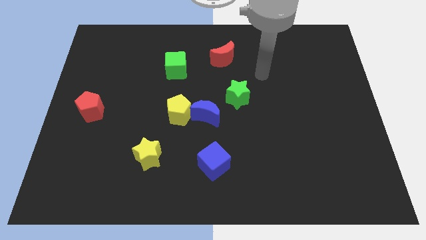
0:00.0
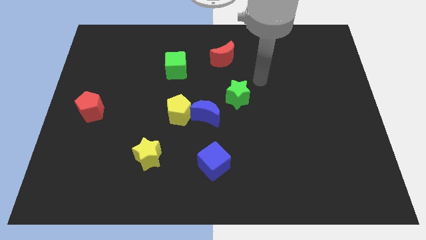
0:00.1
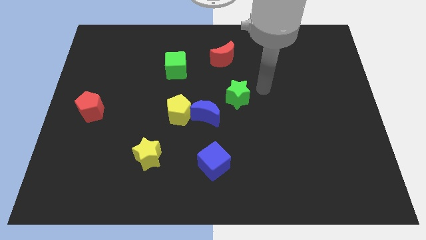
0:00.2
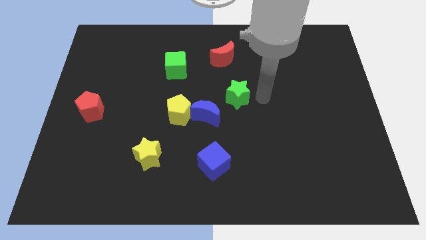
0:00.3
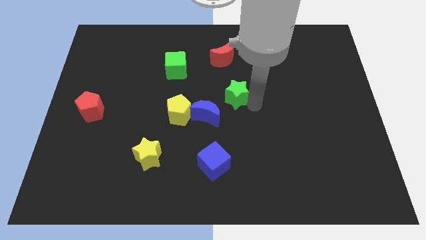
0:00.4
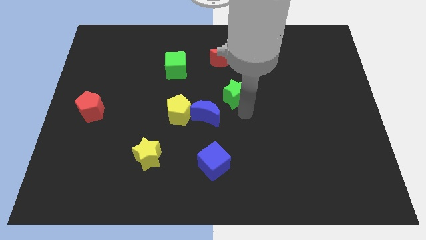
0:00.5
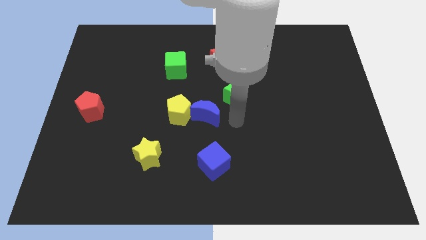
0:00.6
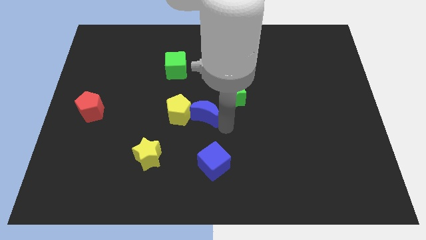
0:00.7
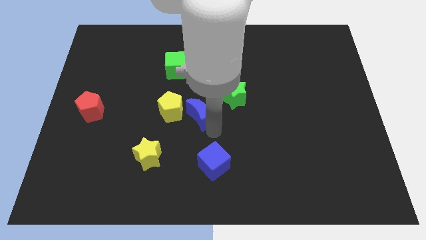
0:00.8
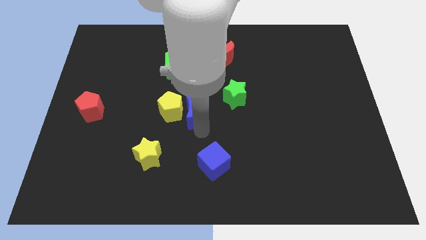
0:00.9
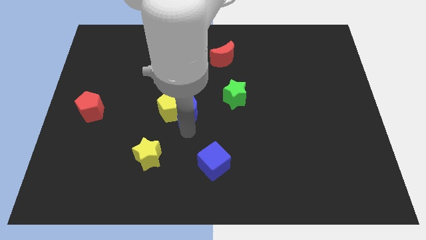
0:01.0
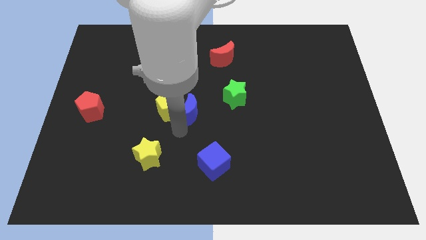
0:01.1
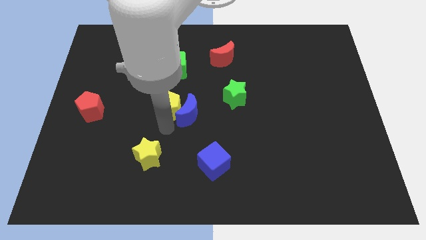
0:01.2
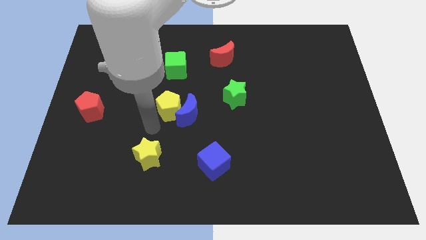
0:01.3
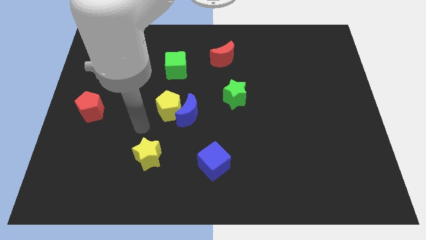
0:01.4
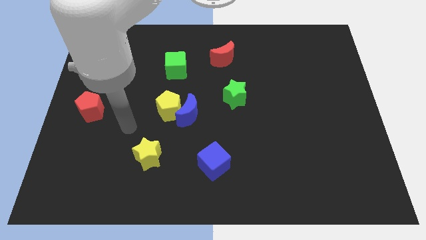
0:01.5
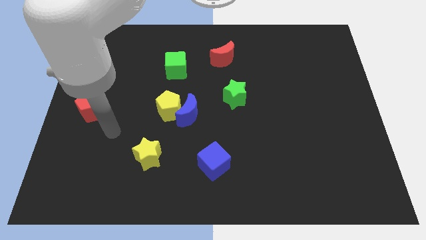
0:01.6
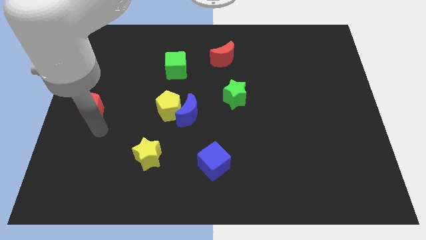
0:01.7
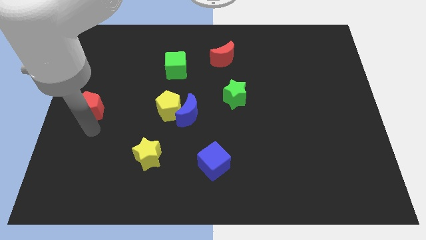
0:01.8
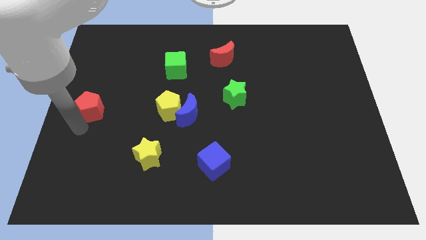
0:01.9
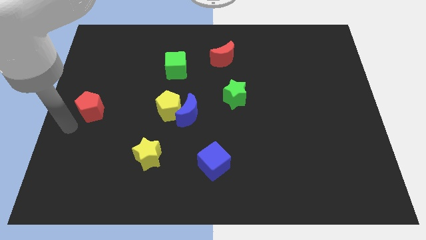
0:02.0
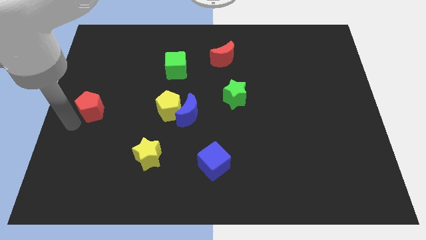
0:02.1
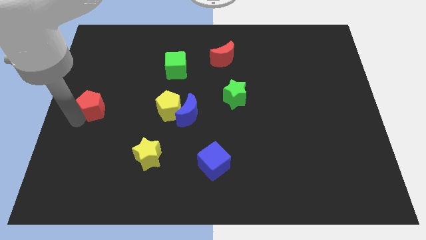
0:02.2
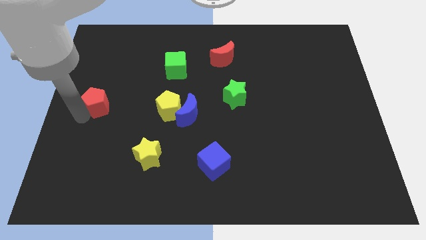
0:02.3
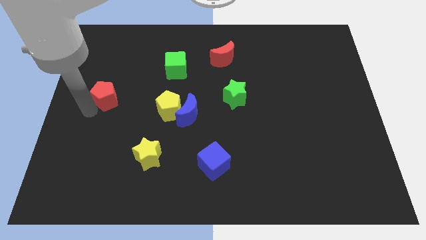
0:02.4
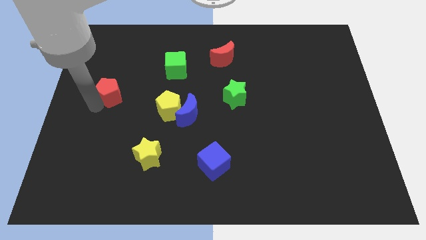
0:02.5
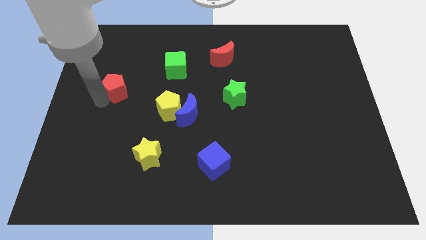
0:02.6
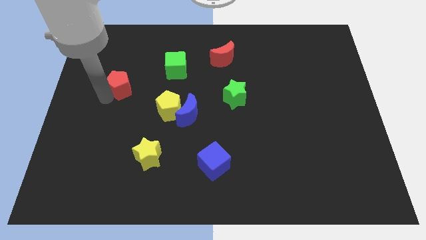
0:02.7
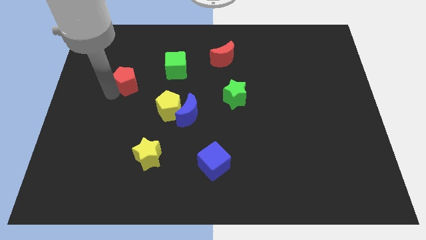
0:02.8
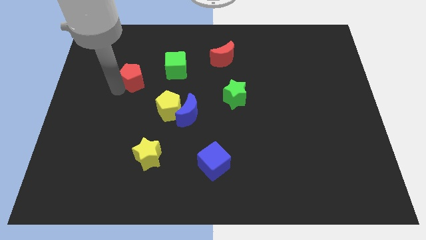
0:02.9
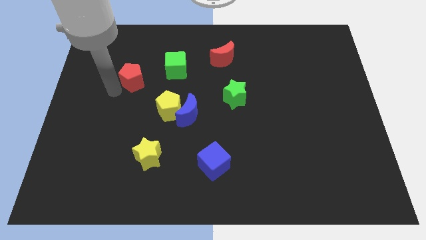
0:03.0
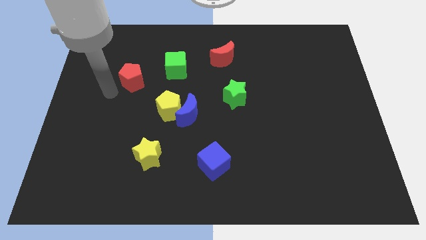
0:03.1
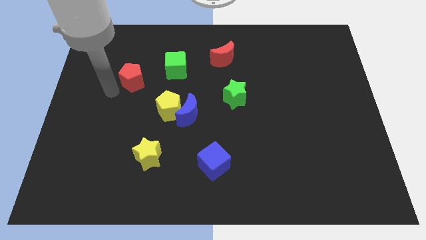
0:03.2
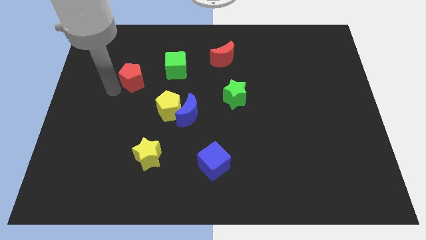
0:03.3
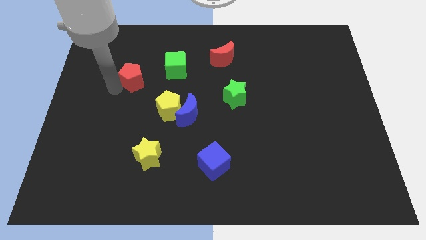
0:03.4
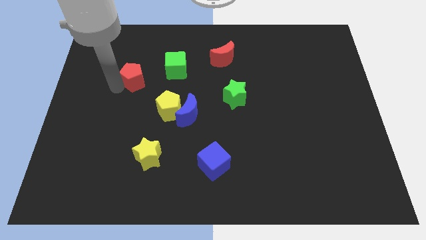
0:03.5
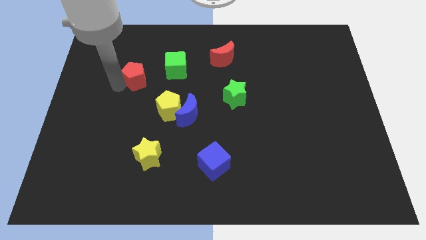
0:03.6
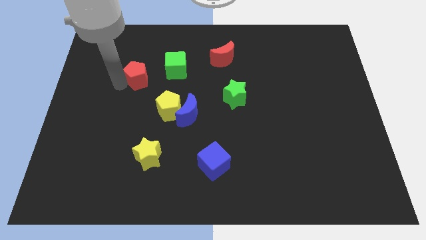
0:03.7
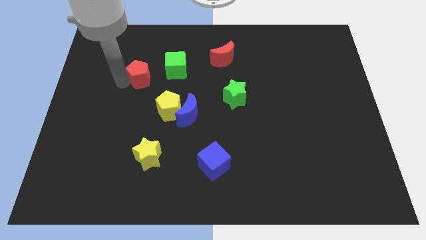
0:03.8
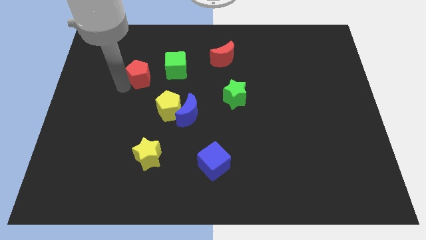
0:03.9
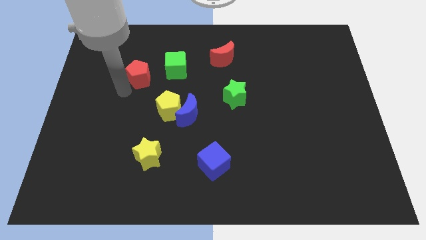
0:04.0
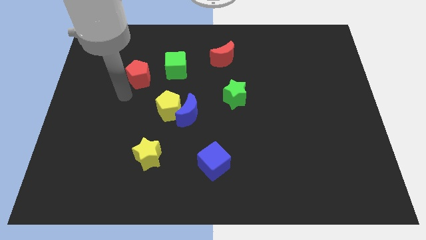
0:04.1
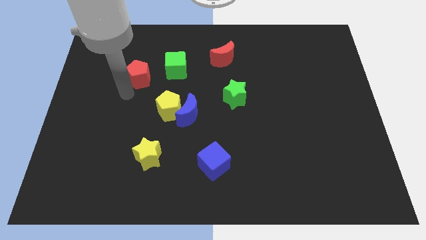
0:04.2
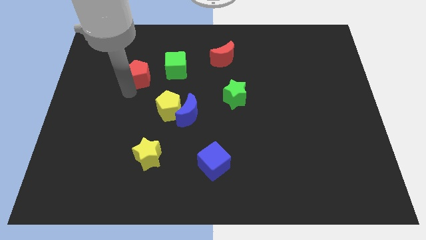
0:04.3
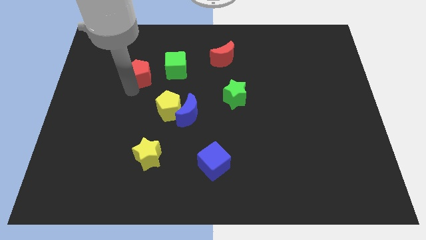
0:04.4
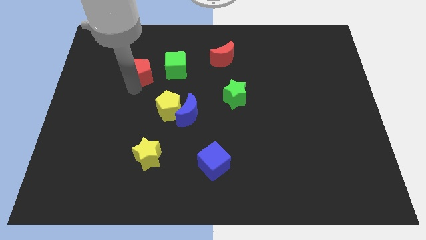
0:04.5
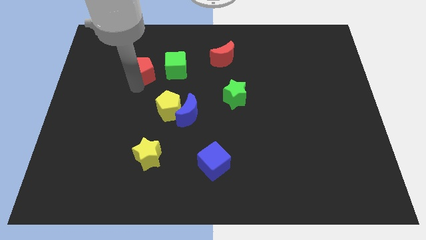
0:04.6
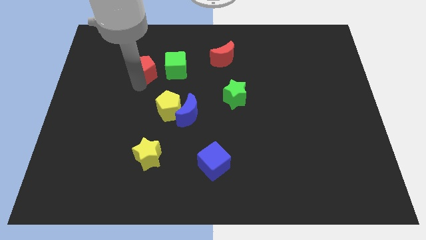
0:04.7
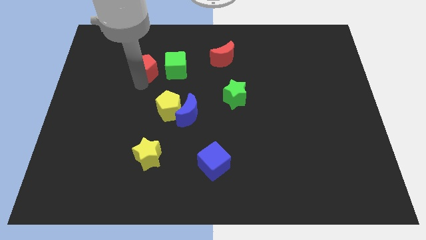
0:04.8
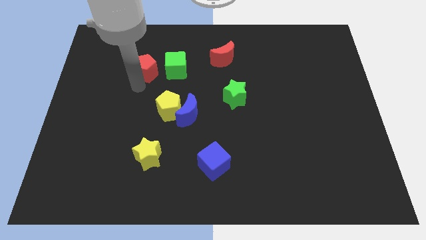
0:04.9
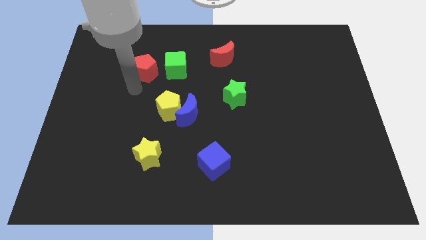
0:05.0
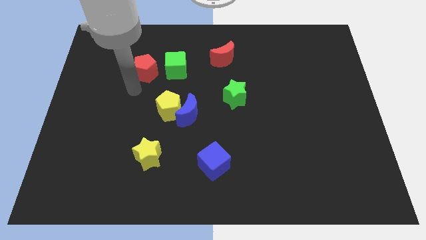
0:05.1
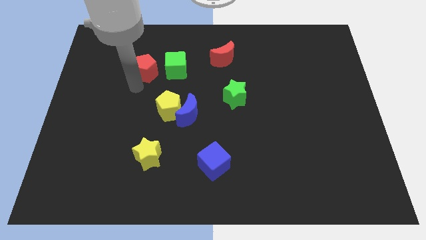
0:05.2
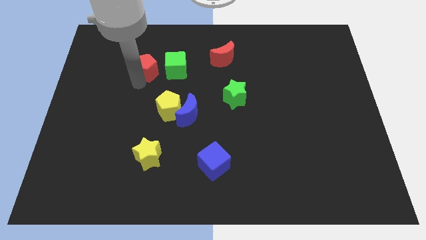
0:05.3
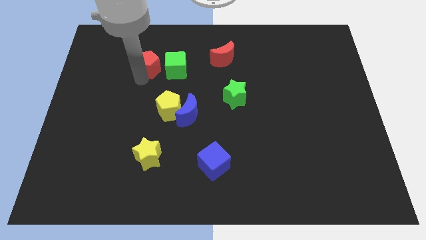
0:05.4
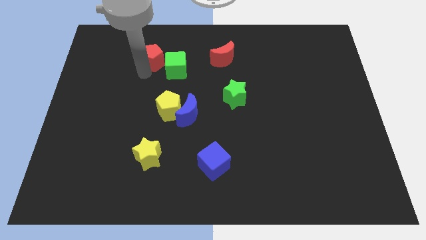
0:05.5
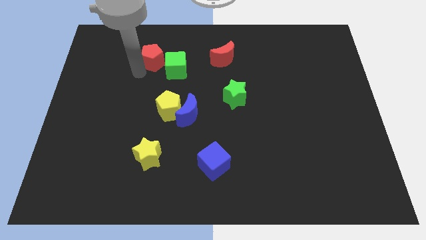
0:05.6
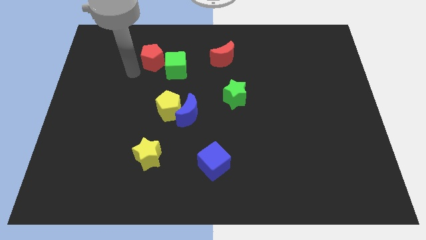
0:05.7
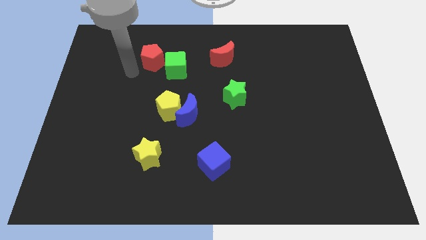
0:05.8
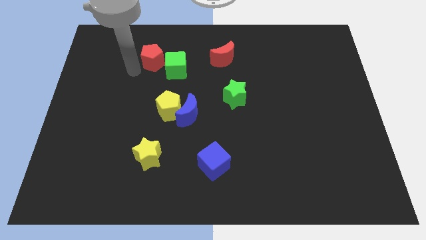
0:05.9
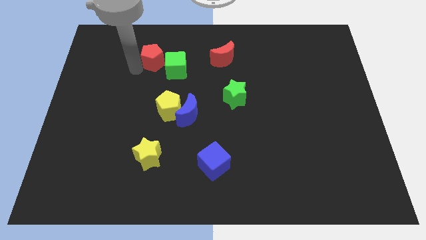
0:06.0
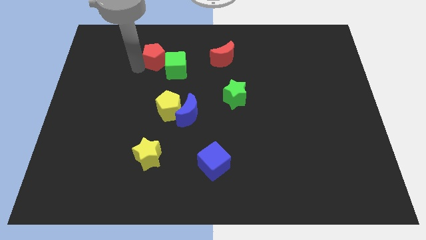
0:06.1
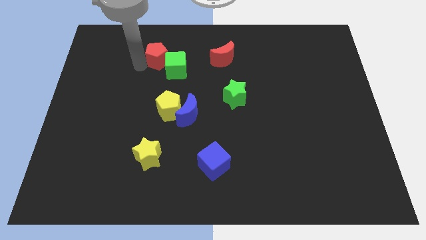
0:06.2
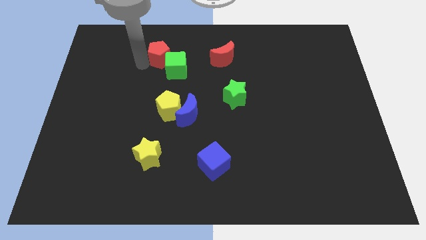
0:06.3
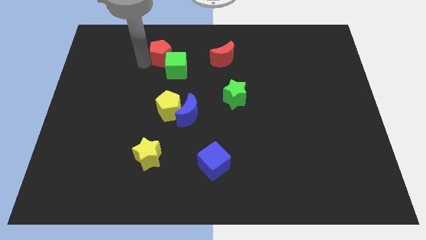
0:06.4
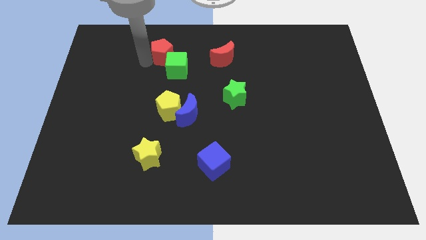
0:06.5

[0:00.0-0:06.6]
push the red pentagon to the left of the red moon

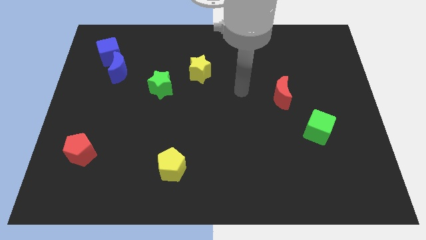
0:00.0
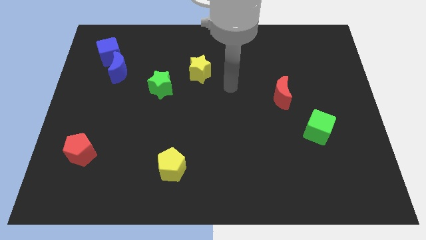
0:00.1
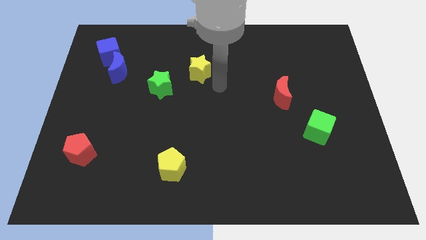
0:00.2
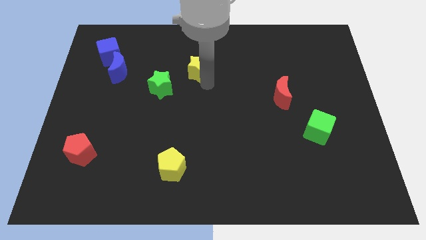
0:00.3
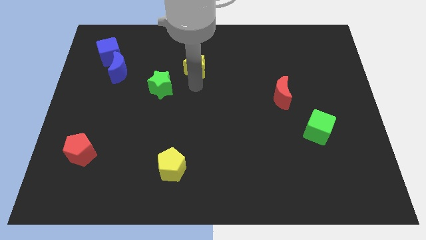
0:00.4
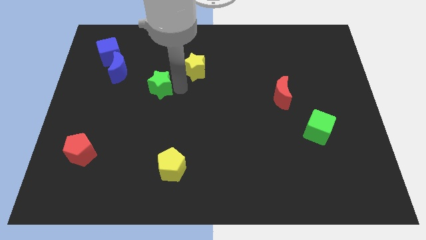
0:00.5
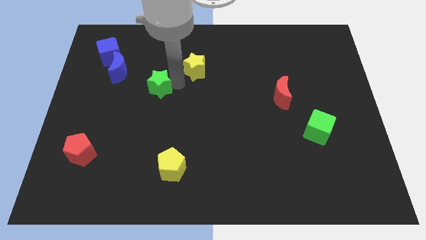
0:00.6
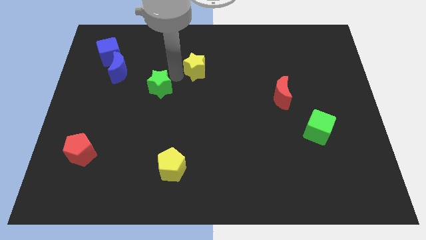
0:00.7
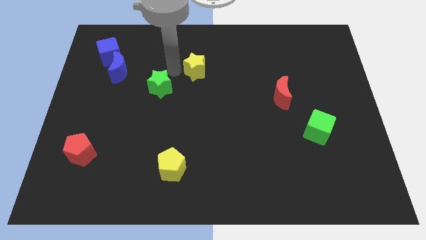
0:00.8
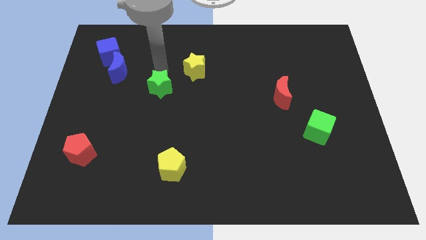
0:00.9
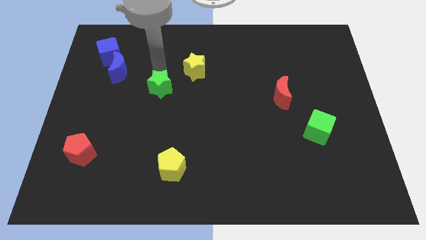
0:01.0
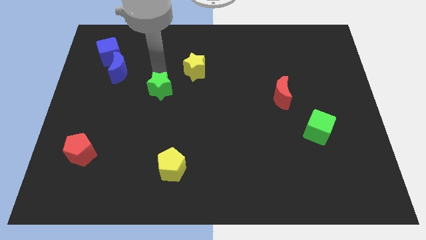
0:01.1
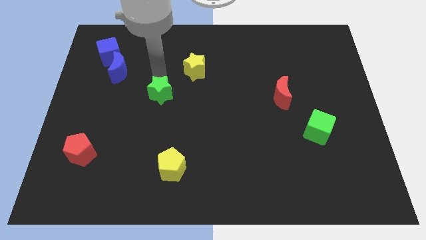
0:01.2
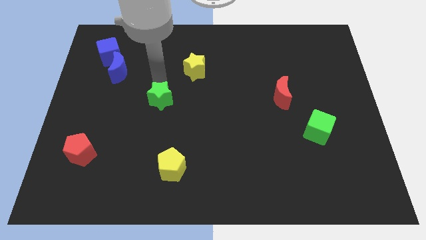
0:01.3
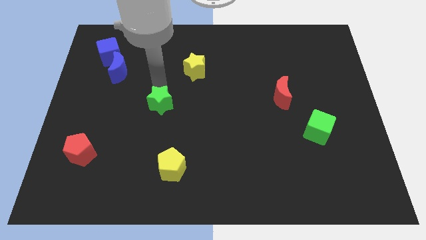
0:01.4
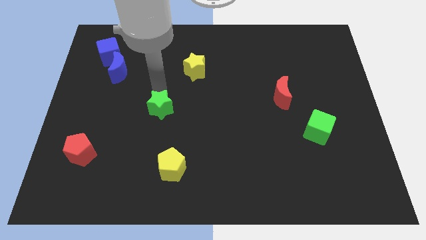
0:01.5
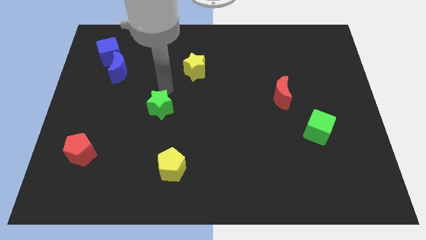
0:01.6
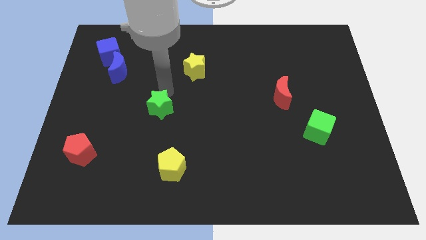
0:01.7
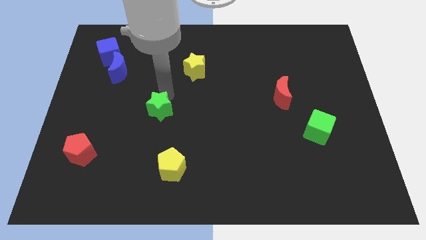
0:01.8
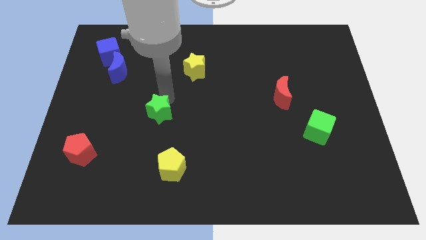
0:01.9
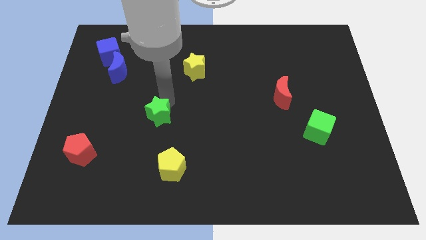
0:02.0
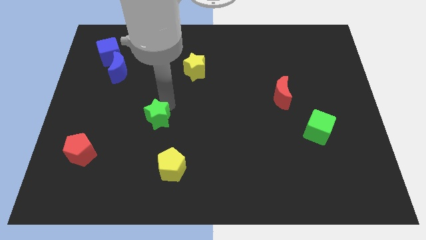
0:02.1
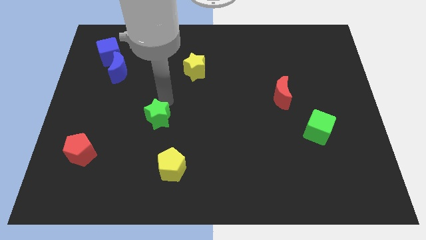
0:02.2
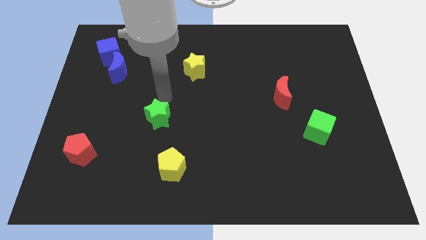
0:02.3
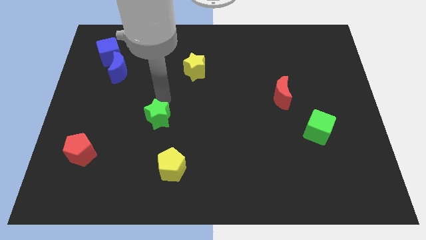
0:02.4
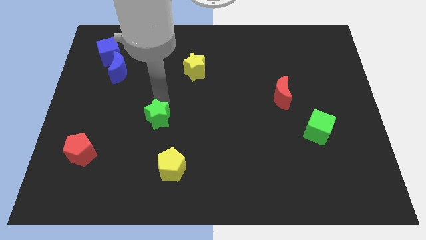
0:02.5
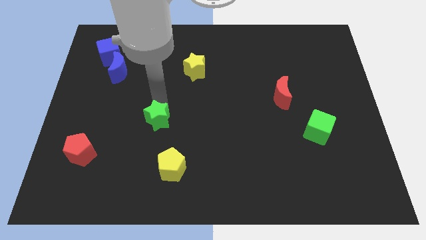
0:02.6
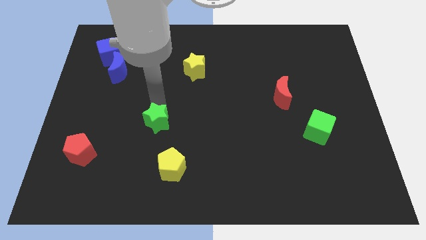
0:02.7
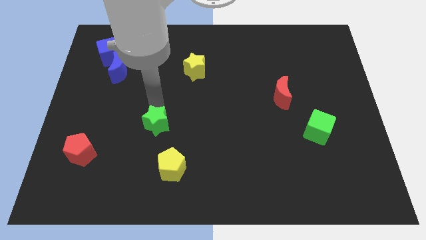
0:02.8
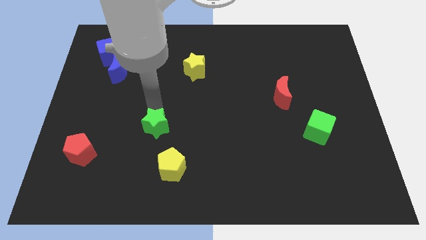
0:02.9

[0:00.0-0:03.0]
put the green star to the top left side of the yellow pentagon
